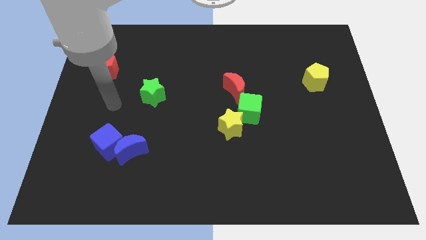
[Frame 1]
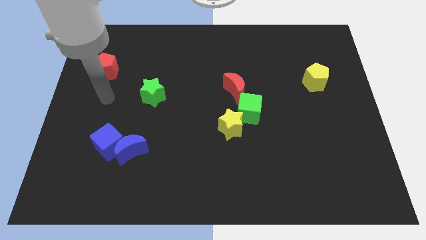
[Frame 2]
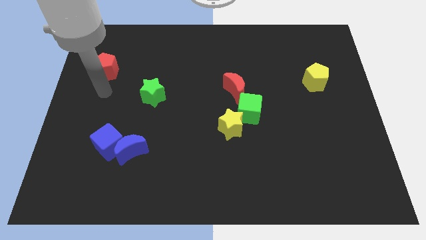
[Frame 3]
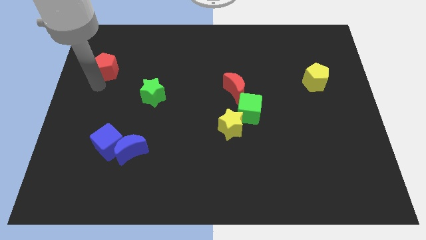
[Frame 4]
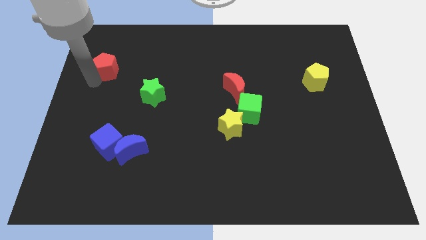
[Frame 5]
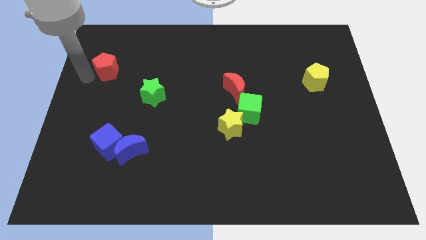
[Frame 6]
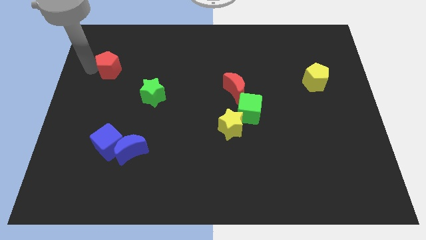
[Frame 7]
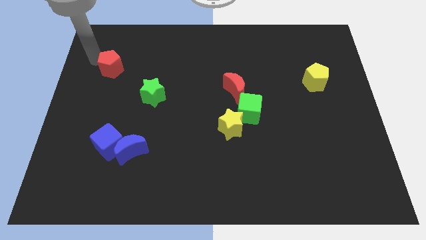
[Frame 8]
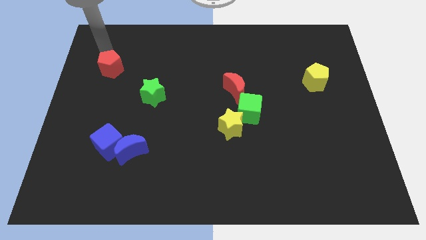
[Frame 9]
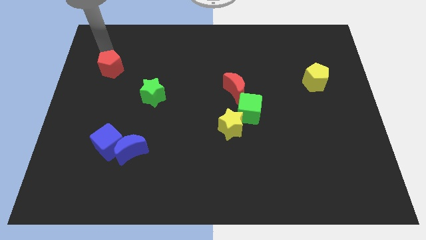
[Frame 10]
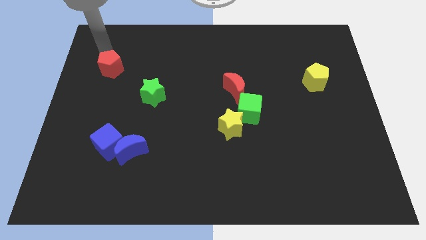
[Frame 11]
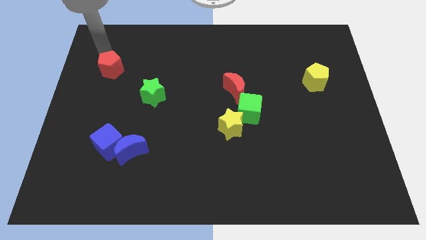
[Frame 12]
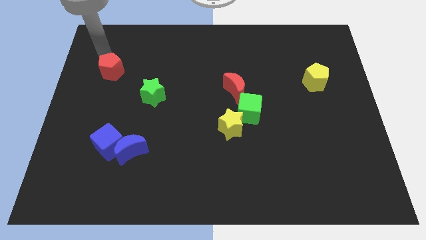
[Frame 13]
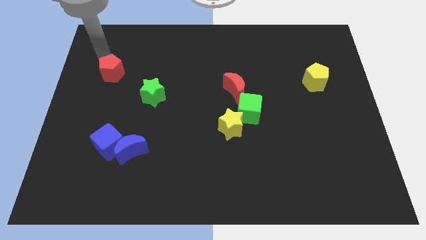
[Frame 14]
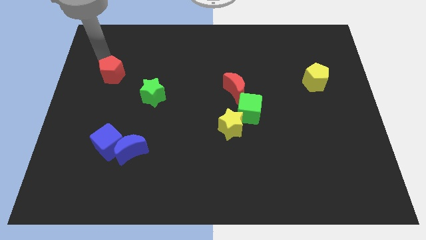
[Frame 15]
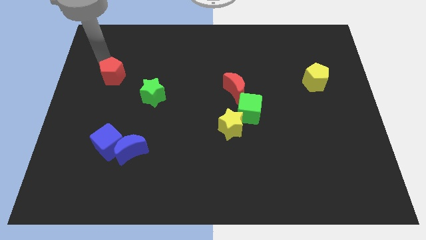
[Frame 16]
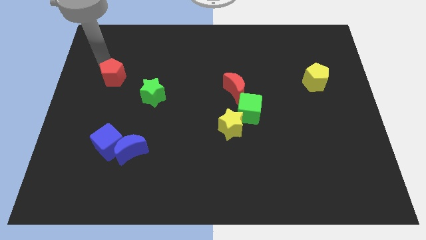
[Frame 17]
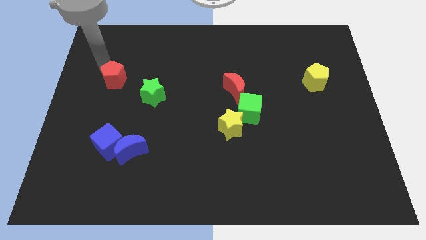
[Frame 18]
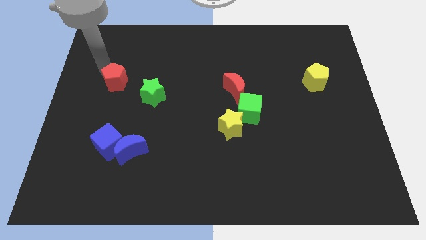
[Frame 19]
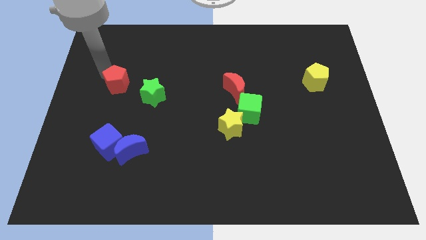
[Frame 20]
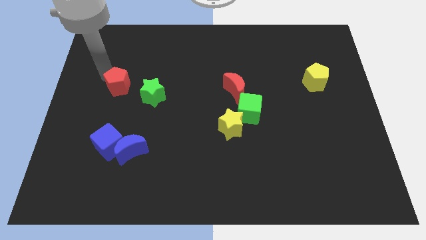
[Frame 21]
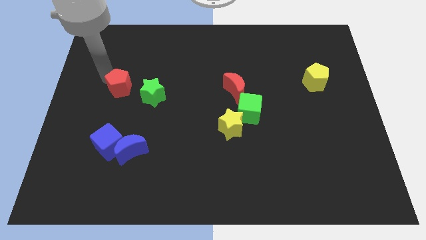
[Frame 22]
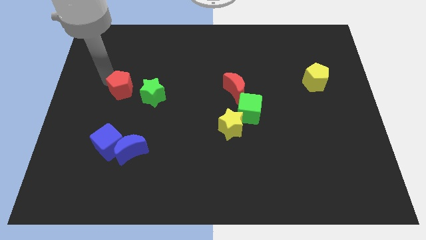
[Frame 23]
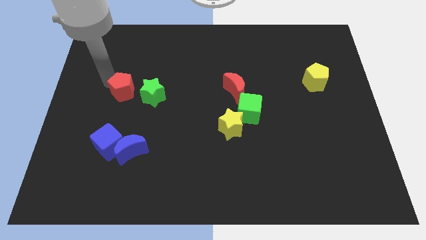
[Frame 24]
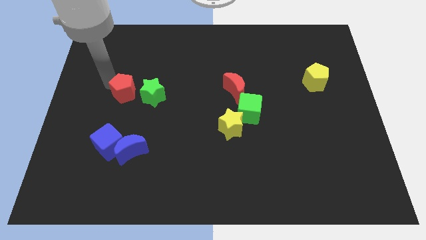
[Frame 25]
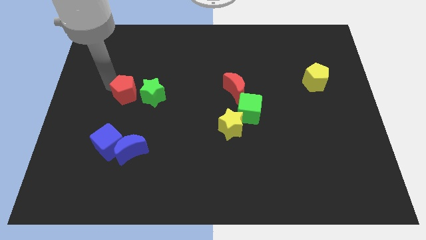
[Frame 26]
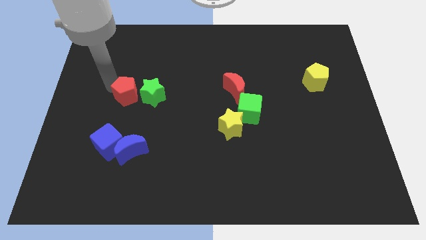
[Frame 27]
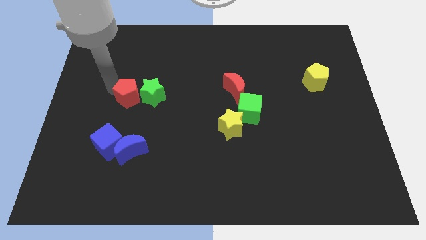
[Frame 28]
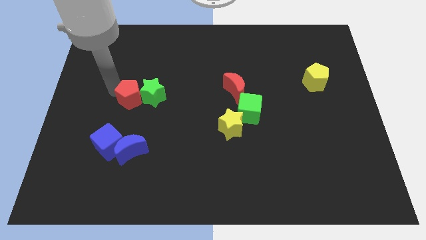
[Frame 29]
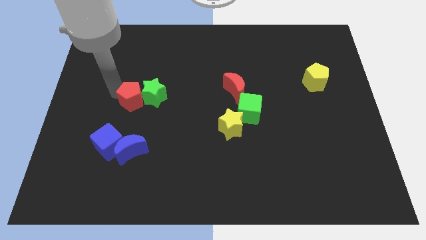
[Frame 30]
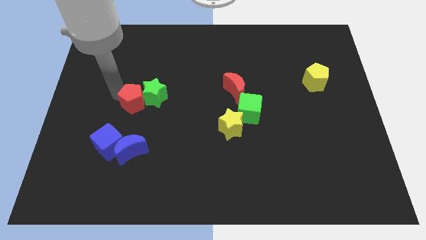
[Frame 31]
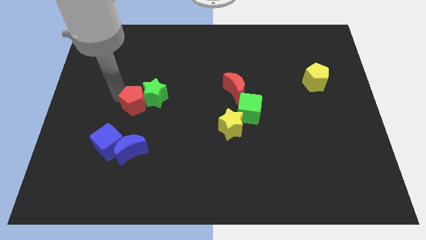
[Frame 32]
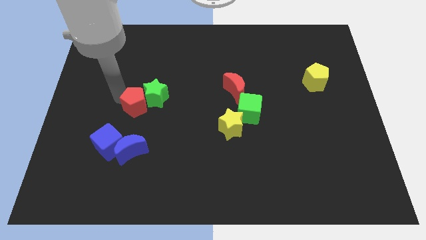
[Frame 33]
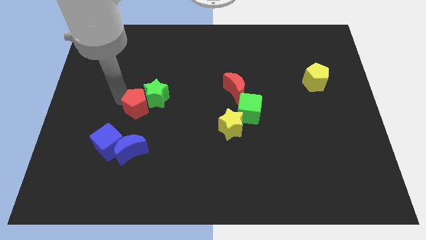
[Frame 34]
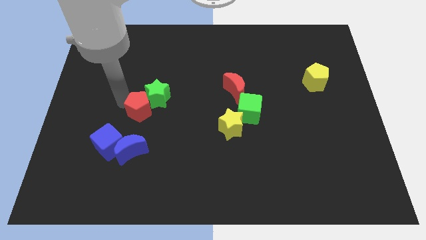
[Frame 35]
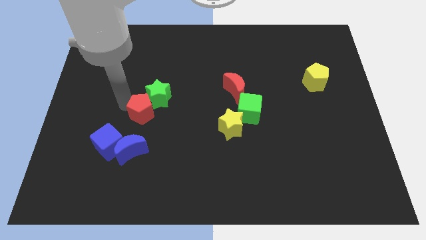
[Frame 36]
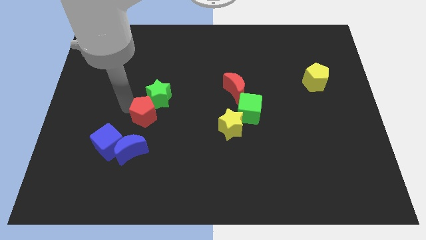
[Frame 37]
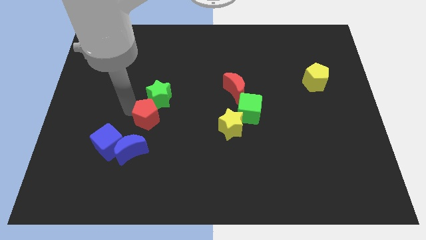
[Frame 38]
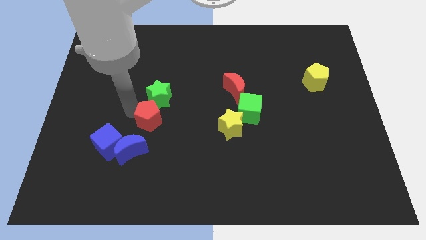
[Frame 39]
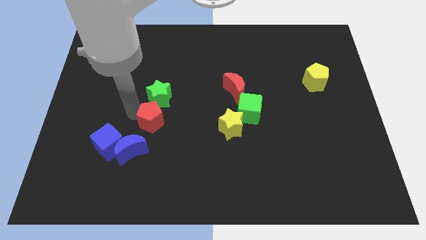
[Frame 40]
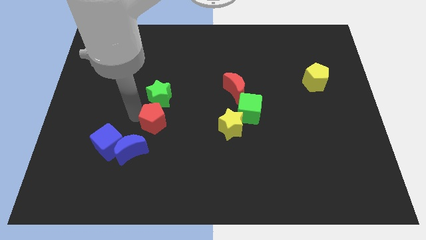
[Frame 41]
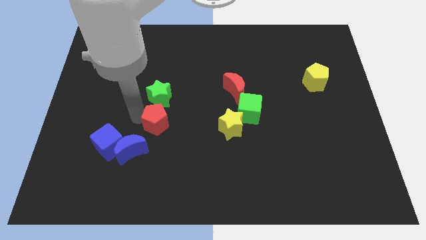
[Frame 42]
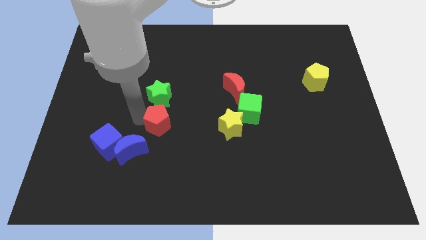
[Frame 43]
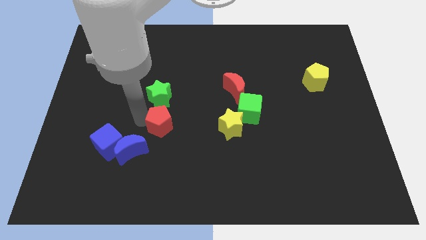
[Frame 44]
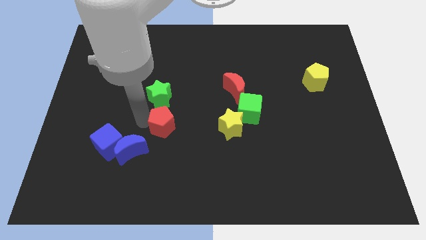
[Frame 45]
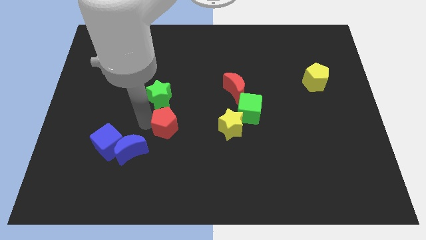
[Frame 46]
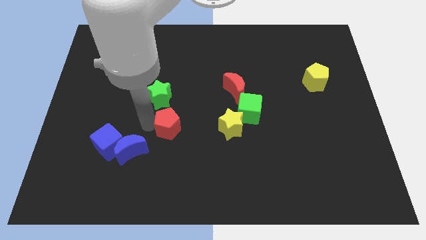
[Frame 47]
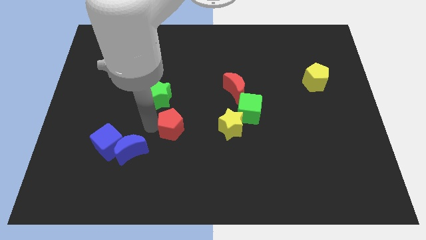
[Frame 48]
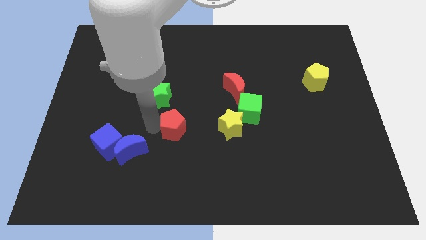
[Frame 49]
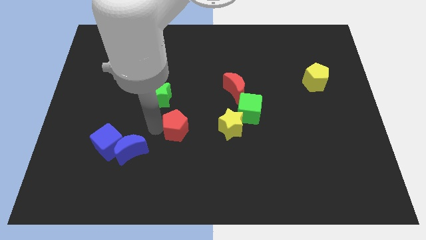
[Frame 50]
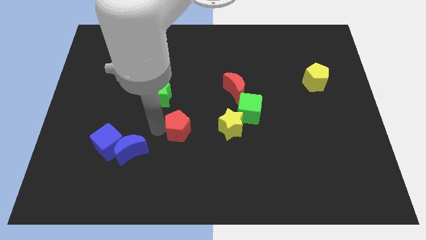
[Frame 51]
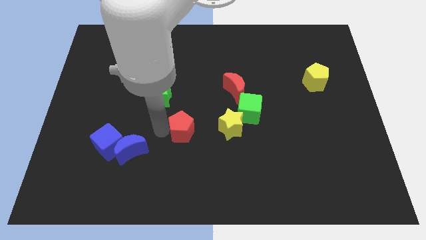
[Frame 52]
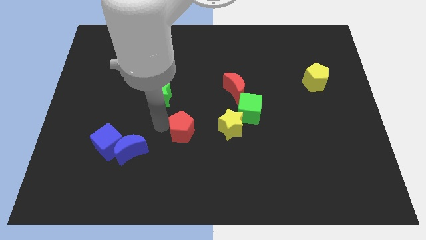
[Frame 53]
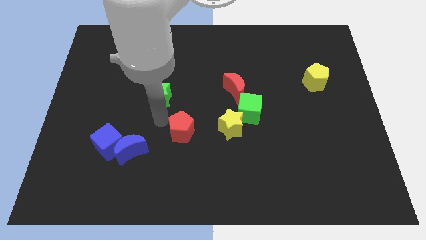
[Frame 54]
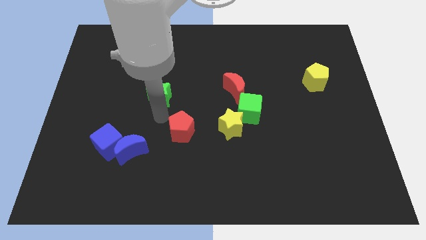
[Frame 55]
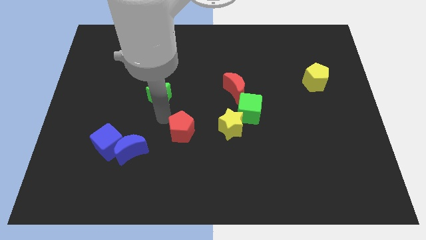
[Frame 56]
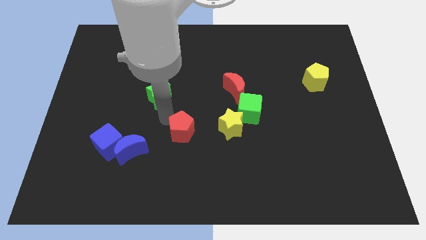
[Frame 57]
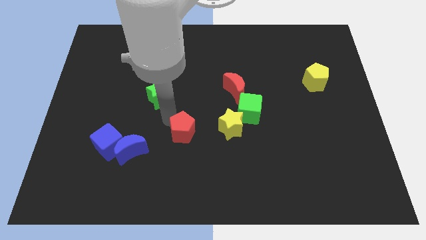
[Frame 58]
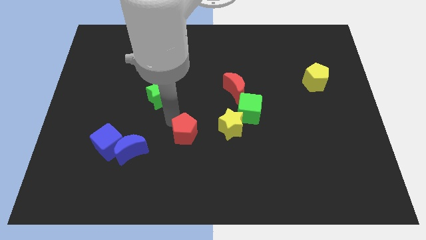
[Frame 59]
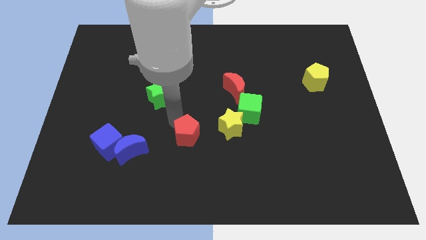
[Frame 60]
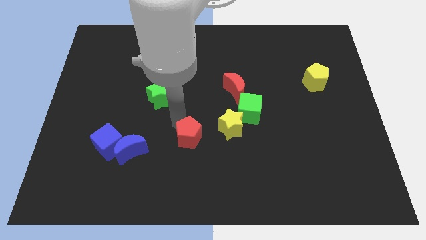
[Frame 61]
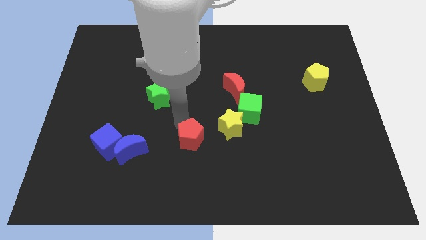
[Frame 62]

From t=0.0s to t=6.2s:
put the red pentagon to the bottom left side of the yellow star

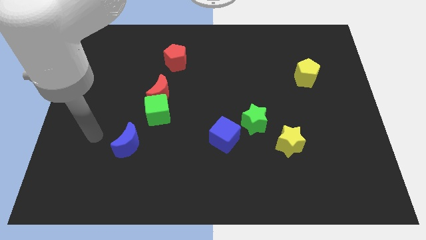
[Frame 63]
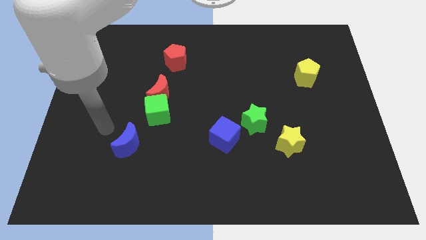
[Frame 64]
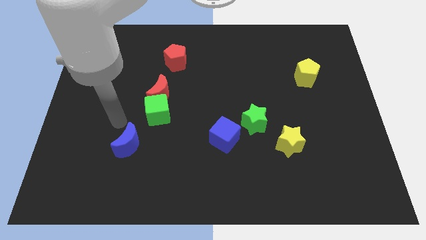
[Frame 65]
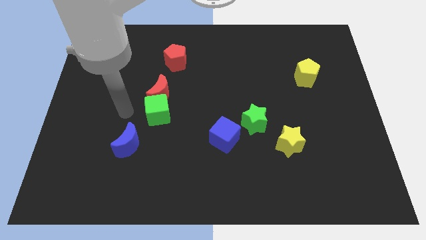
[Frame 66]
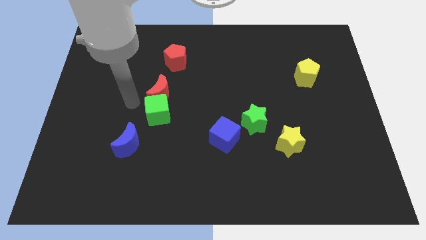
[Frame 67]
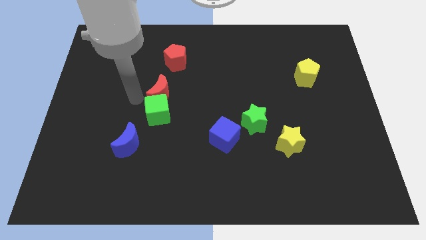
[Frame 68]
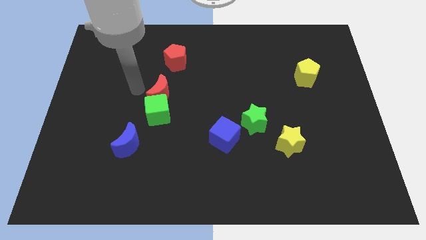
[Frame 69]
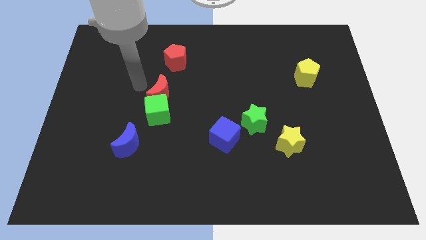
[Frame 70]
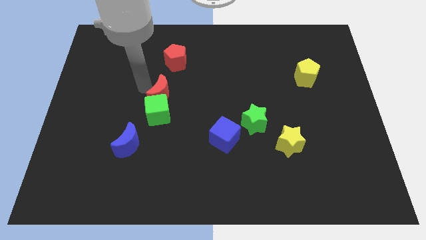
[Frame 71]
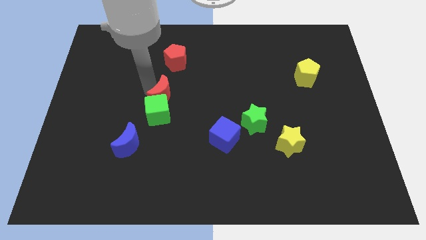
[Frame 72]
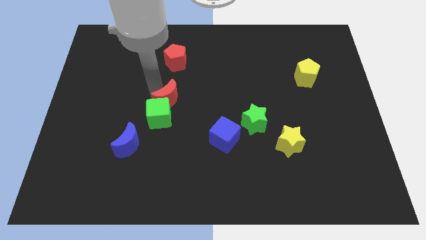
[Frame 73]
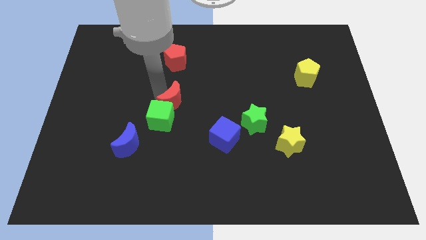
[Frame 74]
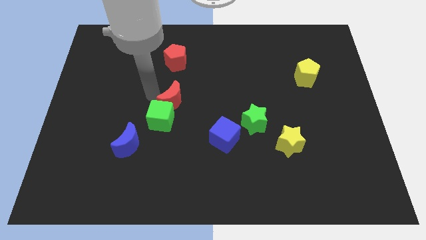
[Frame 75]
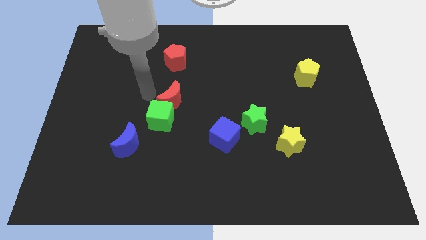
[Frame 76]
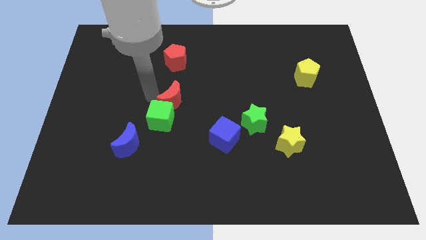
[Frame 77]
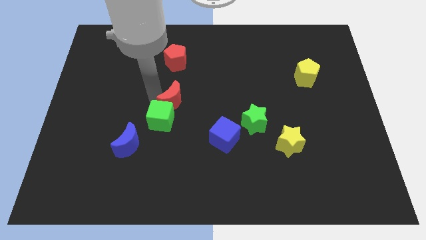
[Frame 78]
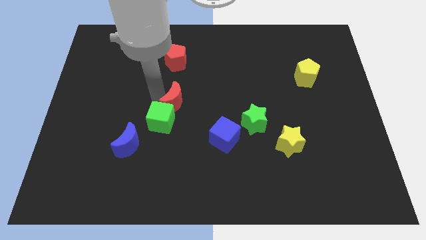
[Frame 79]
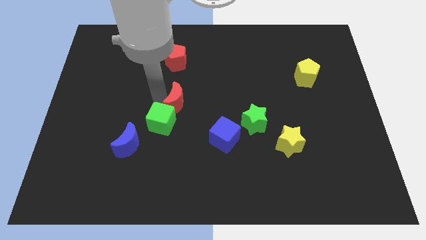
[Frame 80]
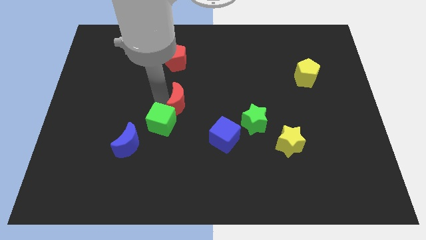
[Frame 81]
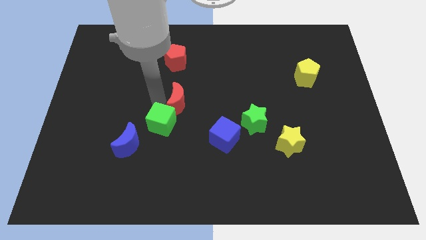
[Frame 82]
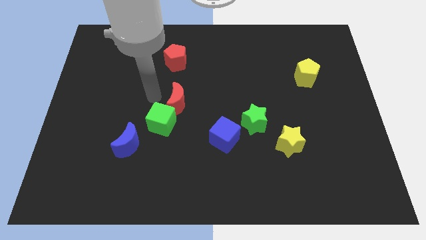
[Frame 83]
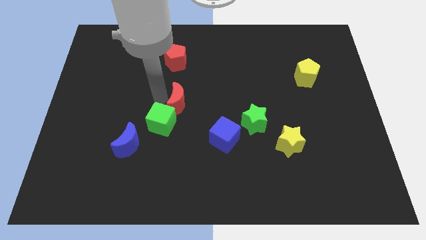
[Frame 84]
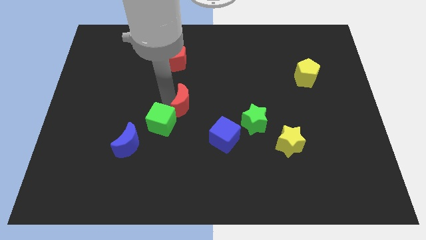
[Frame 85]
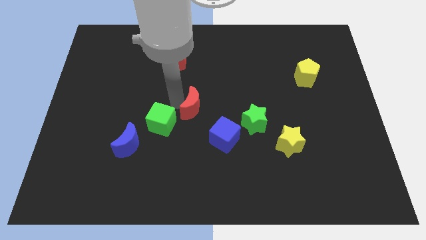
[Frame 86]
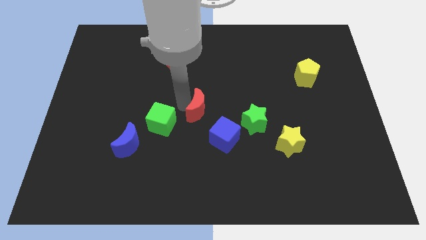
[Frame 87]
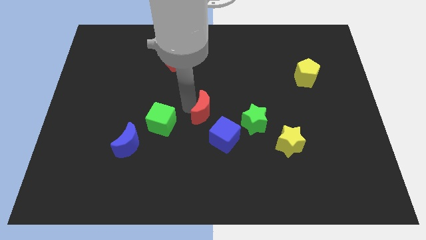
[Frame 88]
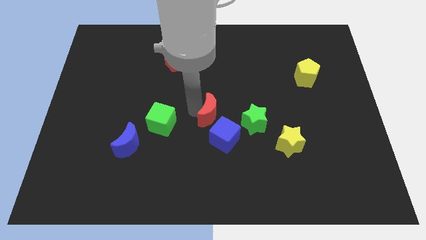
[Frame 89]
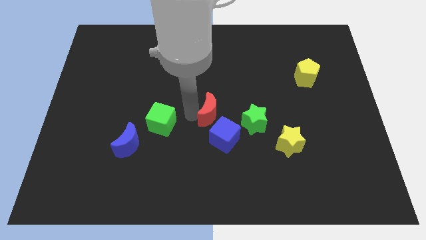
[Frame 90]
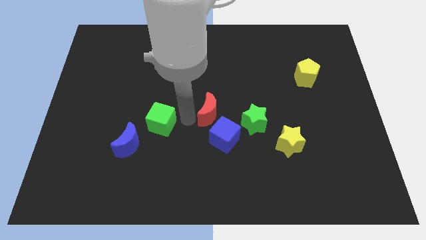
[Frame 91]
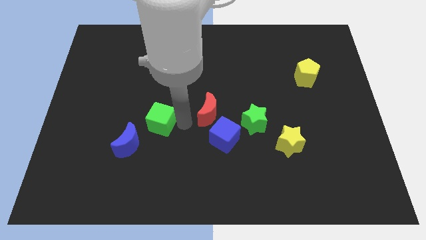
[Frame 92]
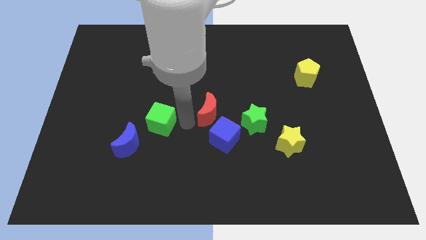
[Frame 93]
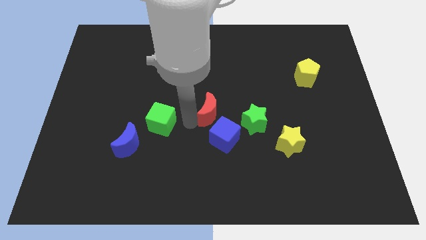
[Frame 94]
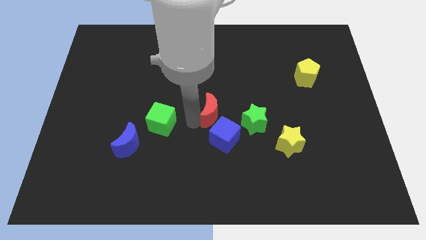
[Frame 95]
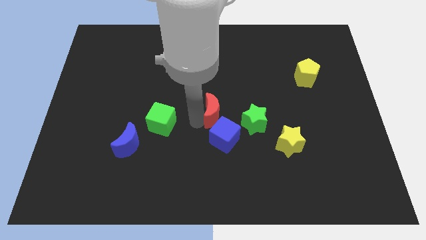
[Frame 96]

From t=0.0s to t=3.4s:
put the red moon to the top left of the green star
